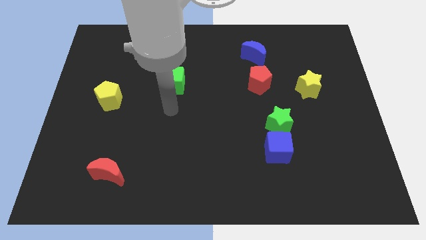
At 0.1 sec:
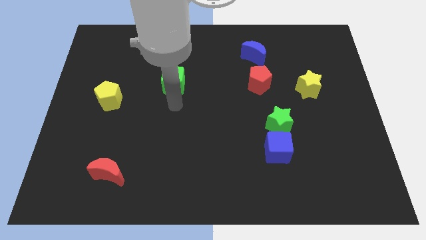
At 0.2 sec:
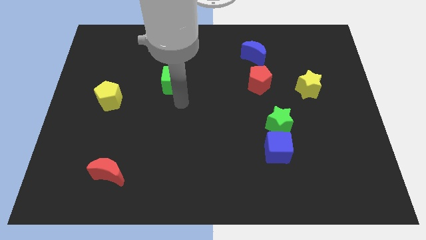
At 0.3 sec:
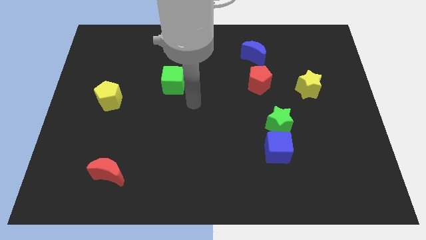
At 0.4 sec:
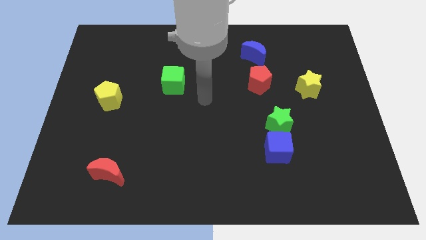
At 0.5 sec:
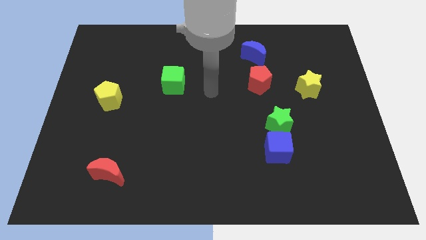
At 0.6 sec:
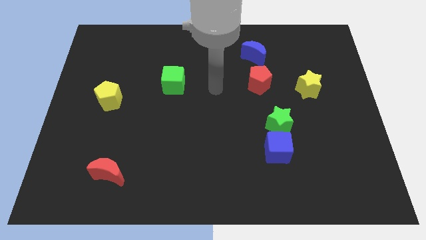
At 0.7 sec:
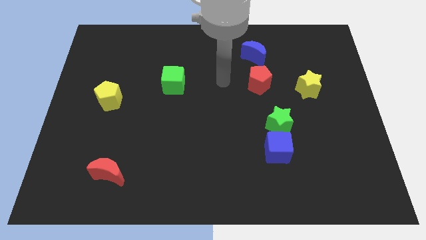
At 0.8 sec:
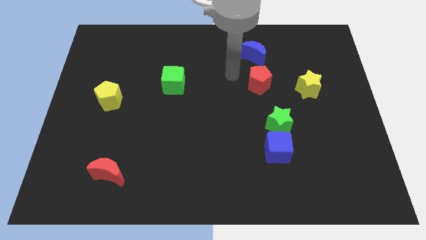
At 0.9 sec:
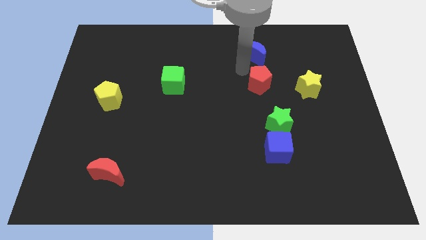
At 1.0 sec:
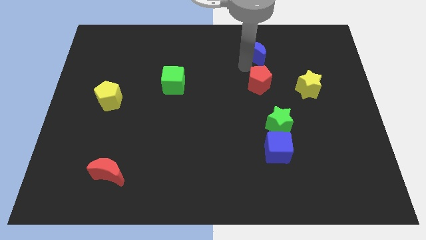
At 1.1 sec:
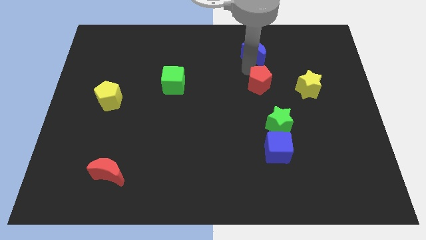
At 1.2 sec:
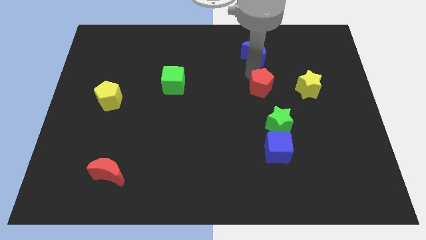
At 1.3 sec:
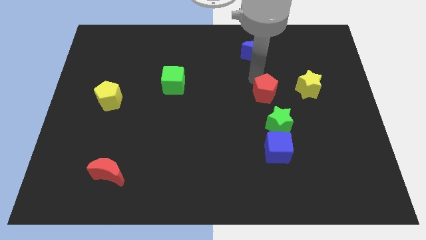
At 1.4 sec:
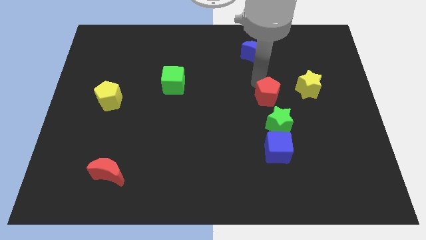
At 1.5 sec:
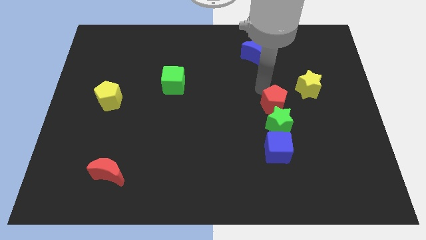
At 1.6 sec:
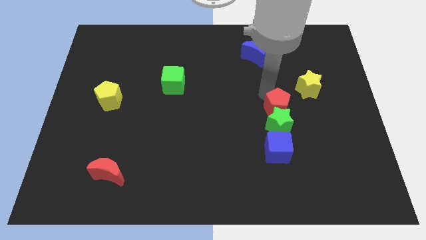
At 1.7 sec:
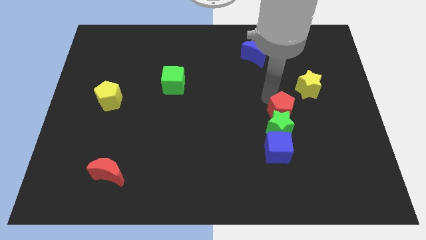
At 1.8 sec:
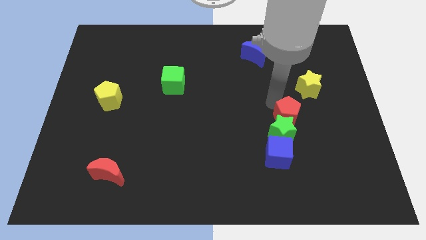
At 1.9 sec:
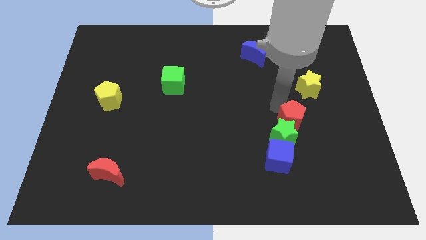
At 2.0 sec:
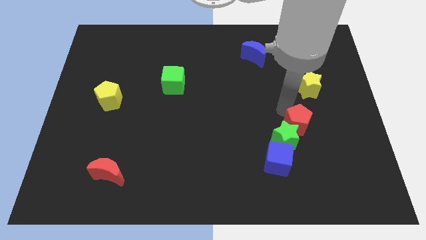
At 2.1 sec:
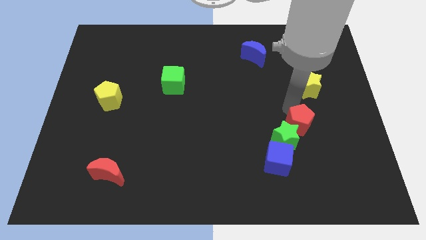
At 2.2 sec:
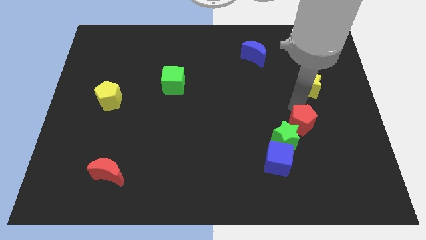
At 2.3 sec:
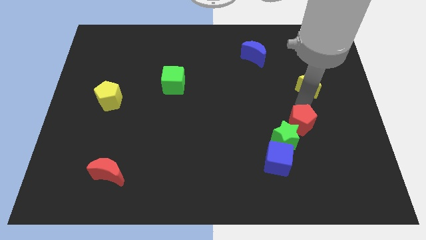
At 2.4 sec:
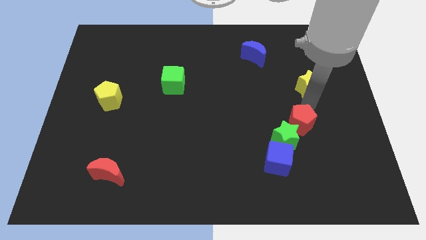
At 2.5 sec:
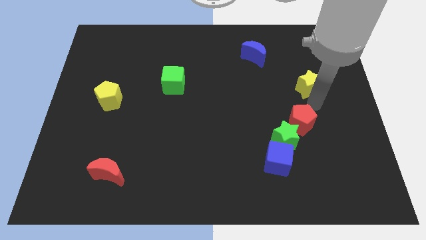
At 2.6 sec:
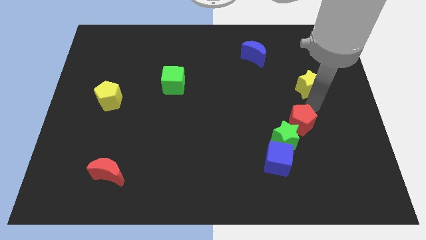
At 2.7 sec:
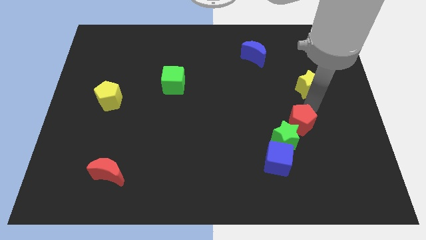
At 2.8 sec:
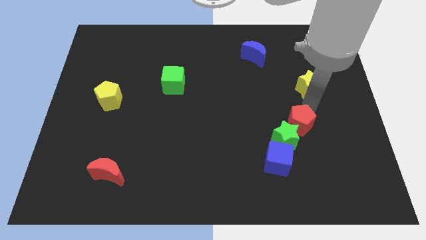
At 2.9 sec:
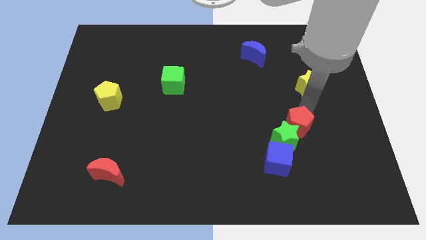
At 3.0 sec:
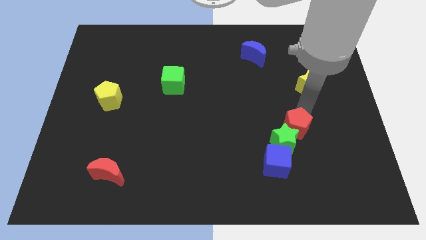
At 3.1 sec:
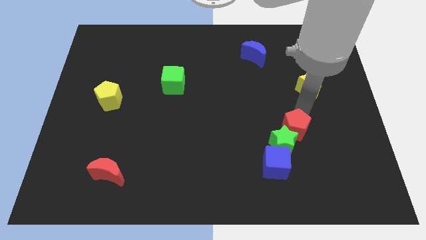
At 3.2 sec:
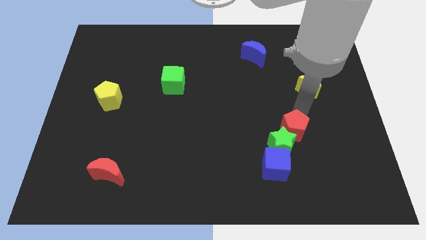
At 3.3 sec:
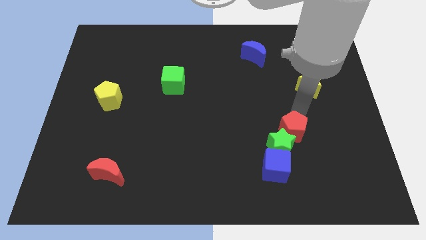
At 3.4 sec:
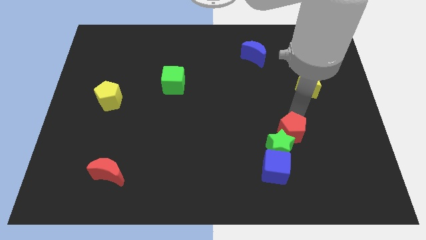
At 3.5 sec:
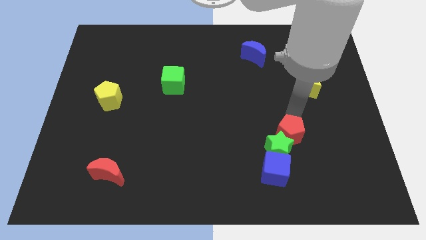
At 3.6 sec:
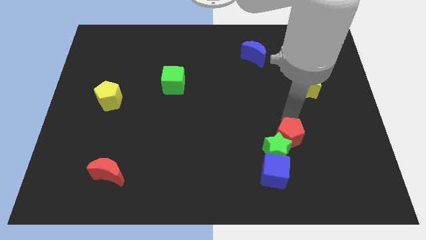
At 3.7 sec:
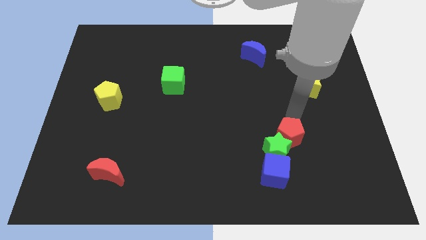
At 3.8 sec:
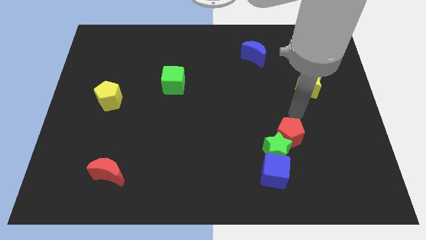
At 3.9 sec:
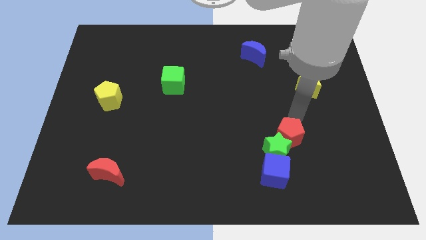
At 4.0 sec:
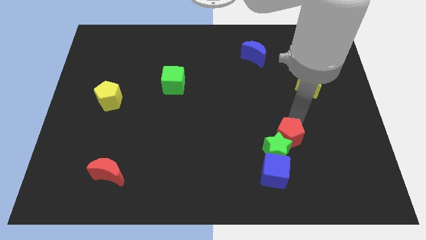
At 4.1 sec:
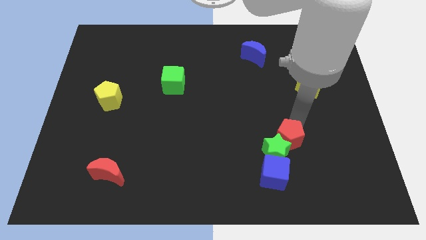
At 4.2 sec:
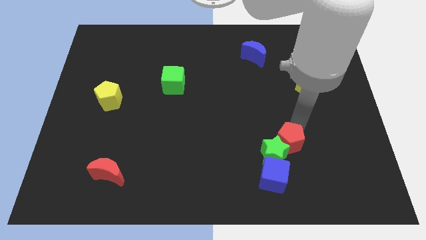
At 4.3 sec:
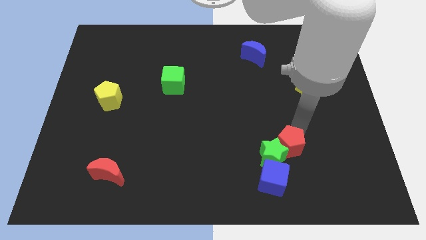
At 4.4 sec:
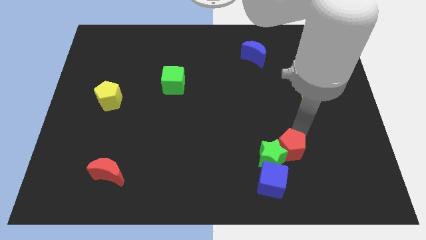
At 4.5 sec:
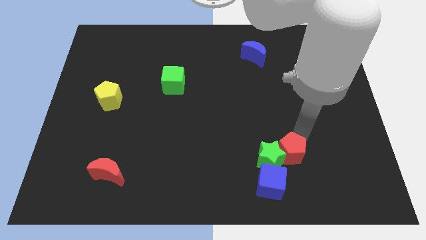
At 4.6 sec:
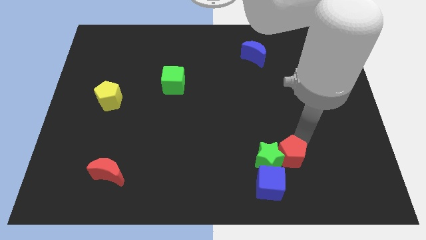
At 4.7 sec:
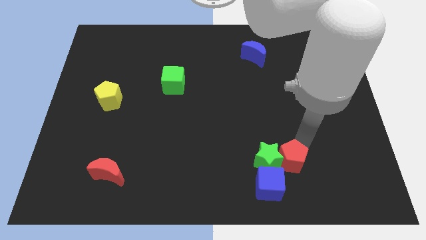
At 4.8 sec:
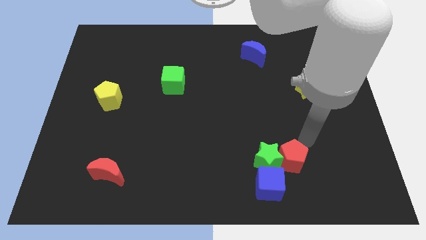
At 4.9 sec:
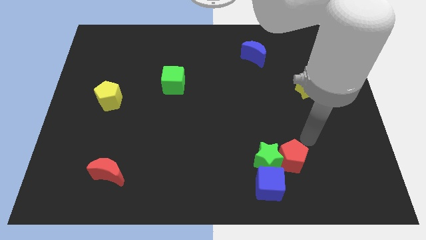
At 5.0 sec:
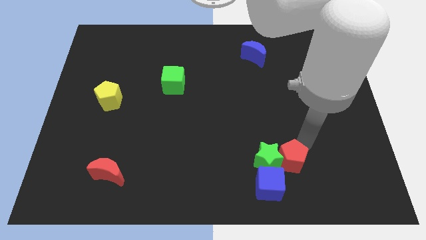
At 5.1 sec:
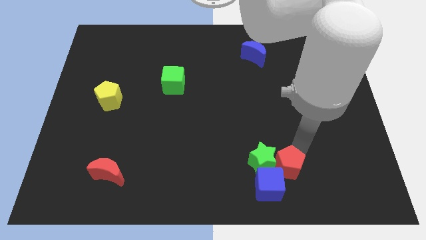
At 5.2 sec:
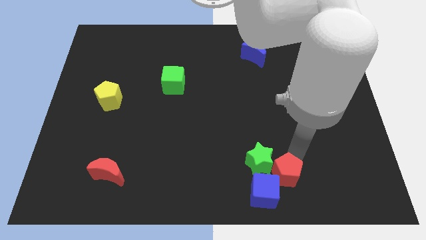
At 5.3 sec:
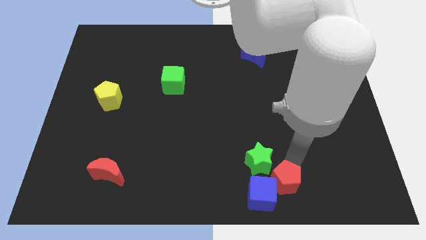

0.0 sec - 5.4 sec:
push the red pentagon towards the blue cube

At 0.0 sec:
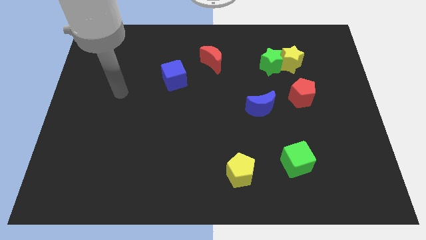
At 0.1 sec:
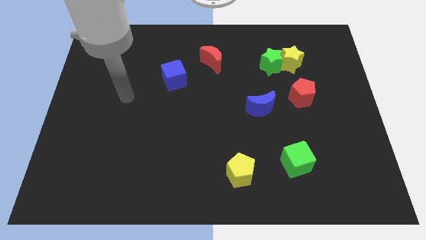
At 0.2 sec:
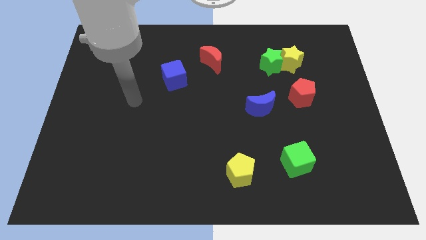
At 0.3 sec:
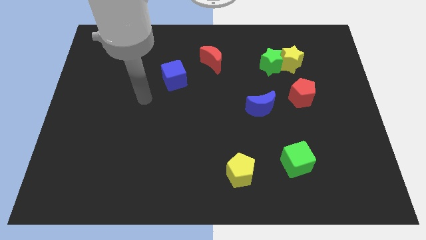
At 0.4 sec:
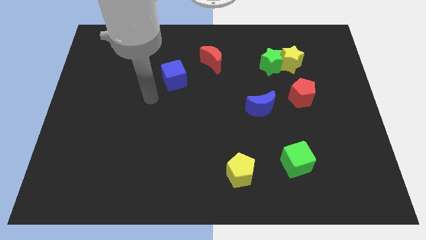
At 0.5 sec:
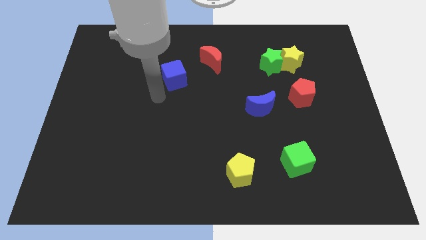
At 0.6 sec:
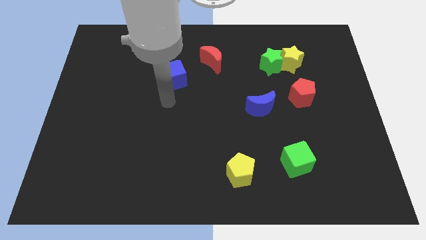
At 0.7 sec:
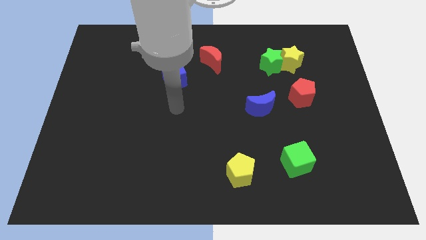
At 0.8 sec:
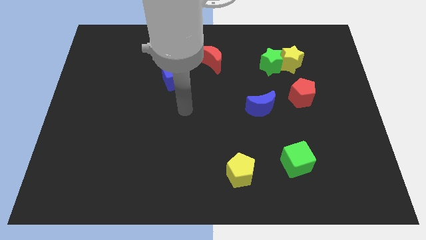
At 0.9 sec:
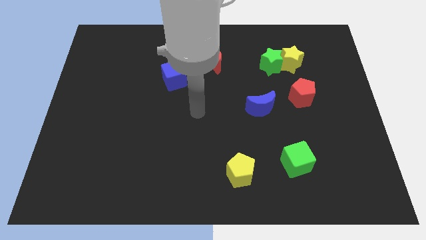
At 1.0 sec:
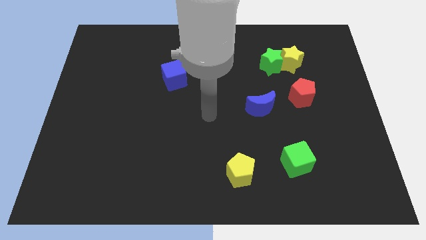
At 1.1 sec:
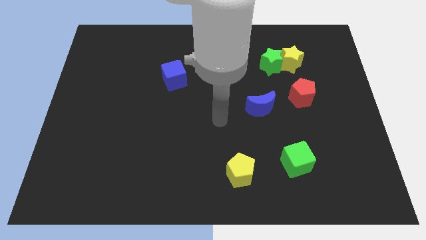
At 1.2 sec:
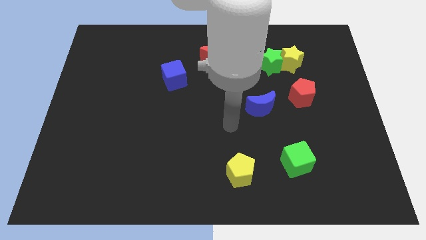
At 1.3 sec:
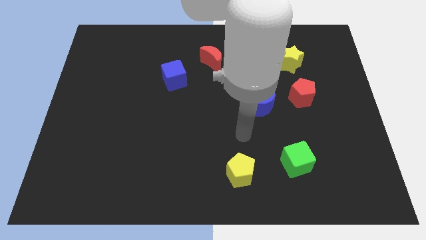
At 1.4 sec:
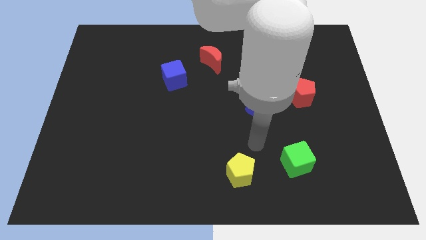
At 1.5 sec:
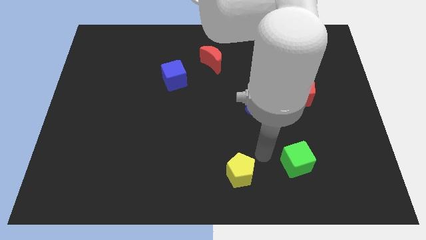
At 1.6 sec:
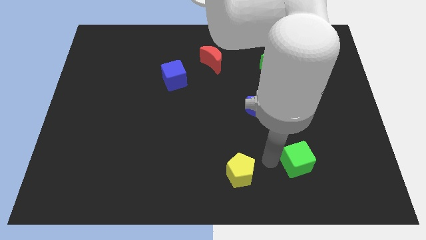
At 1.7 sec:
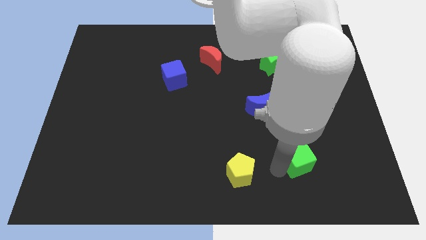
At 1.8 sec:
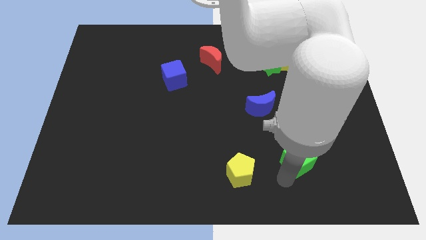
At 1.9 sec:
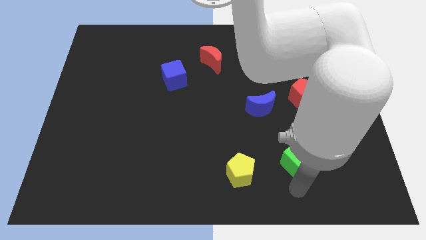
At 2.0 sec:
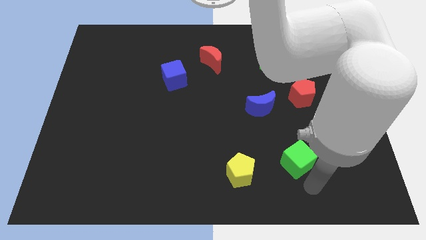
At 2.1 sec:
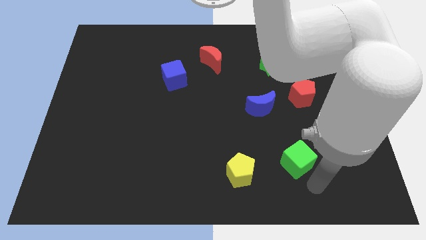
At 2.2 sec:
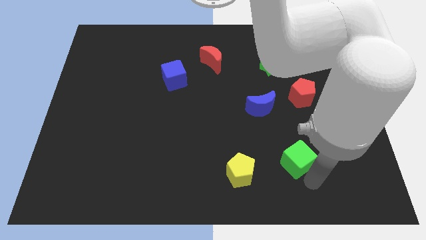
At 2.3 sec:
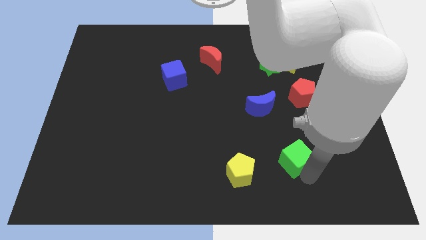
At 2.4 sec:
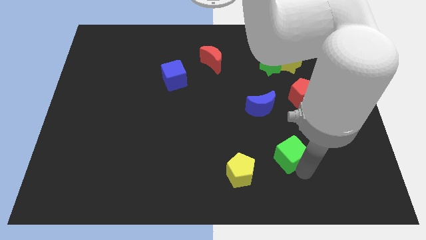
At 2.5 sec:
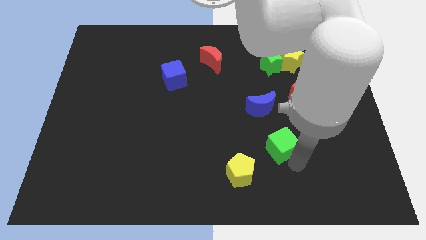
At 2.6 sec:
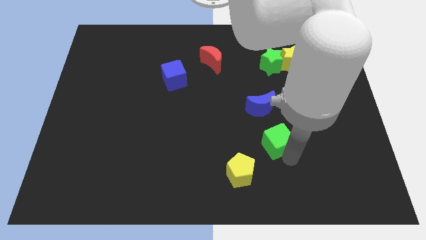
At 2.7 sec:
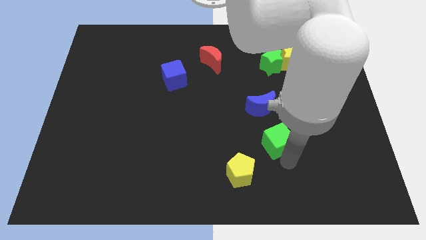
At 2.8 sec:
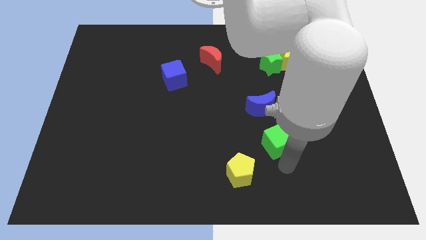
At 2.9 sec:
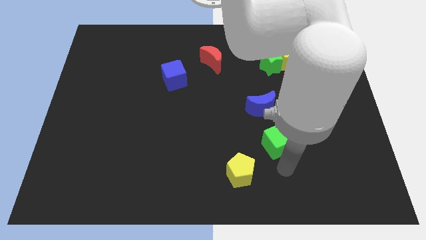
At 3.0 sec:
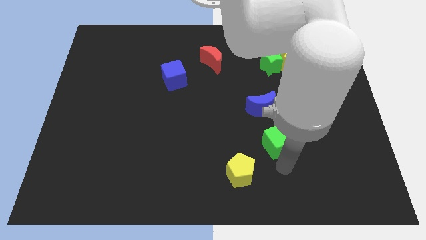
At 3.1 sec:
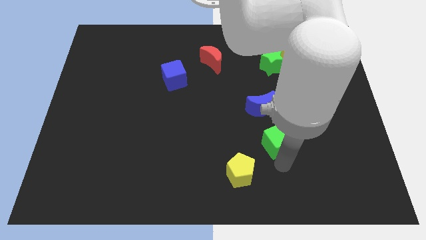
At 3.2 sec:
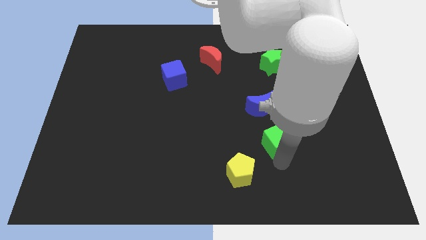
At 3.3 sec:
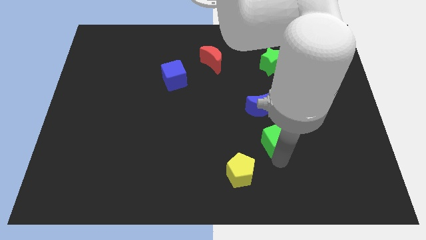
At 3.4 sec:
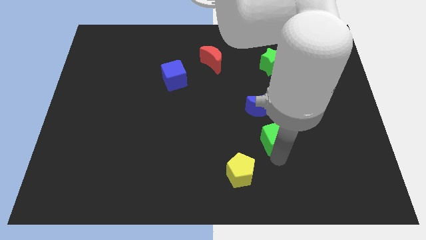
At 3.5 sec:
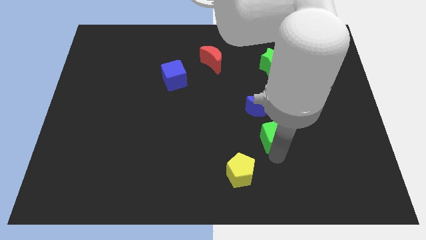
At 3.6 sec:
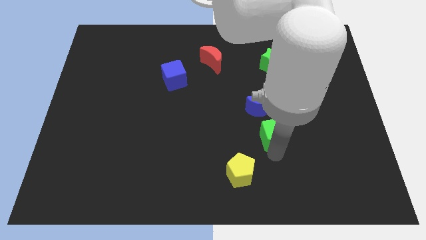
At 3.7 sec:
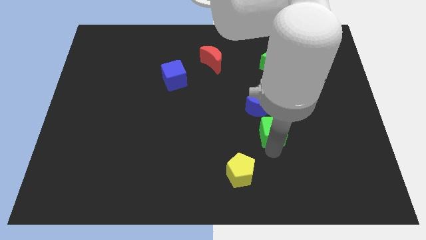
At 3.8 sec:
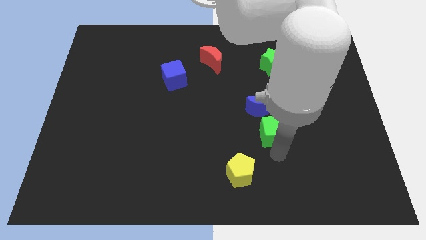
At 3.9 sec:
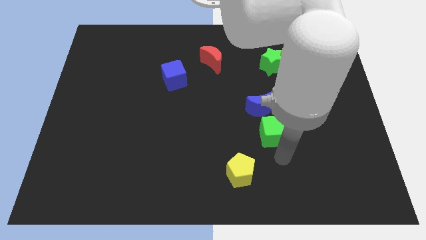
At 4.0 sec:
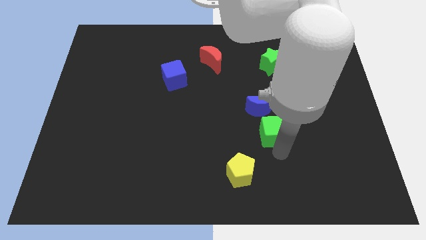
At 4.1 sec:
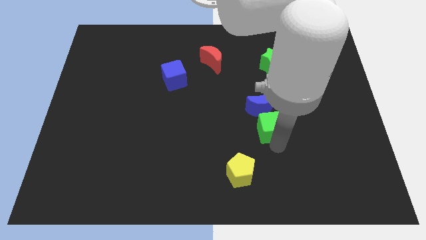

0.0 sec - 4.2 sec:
push the green cube towards the blue moon
